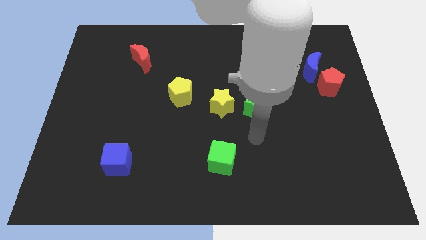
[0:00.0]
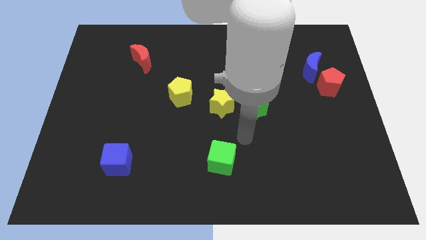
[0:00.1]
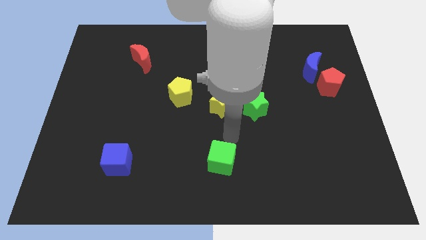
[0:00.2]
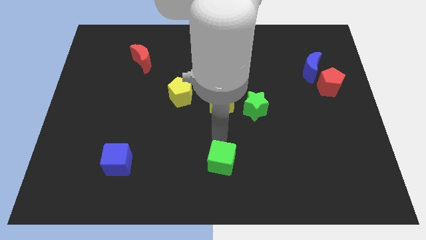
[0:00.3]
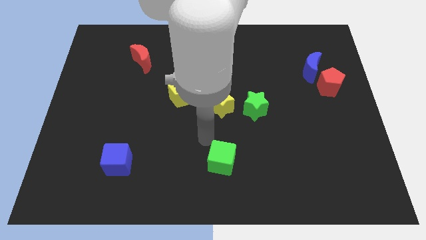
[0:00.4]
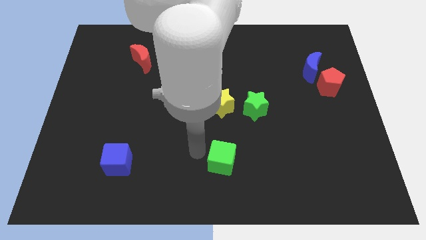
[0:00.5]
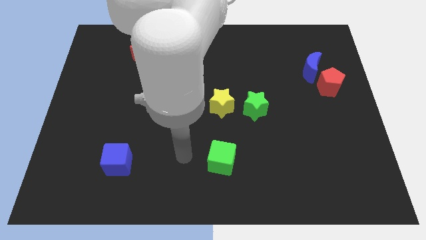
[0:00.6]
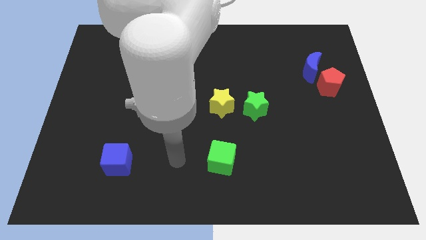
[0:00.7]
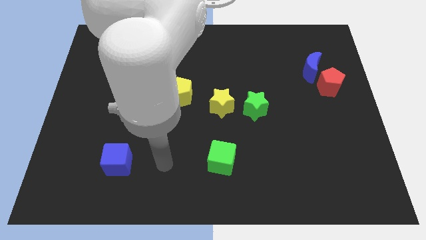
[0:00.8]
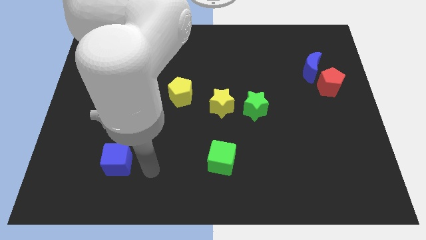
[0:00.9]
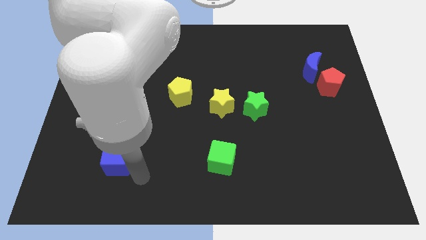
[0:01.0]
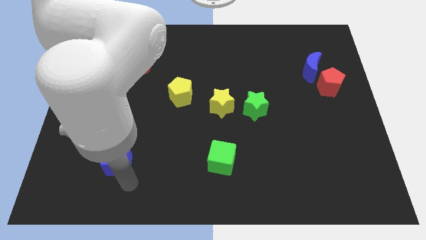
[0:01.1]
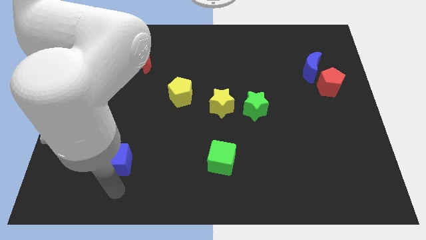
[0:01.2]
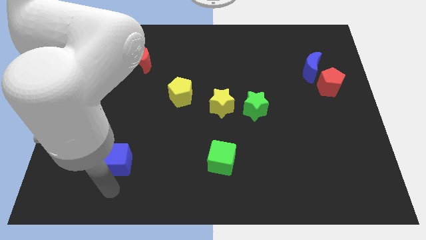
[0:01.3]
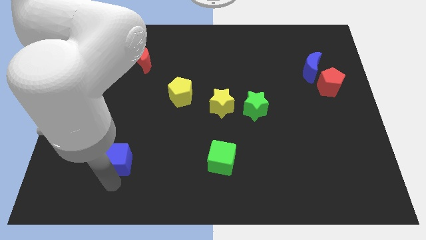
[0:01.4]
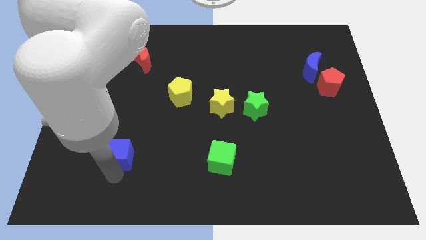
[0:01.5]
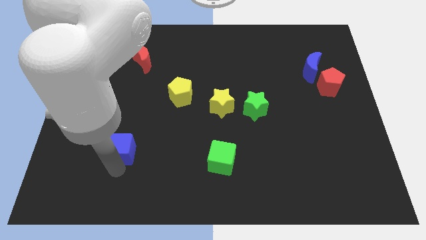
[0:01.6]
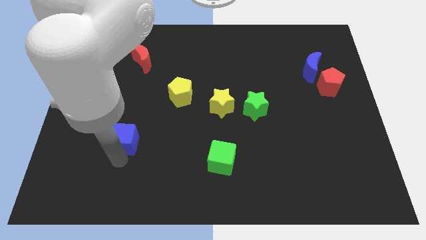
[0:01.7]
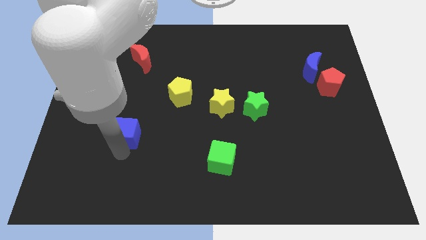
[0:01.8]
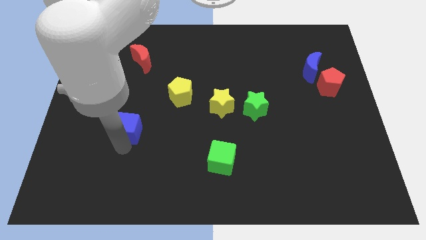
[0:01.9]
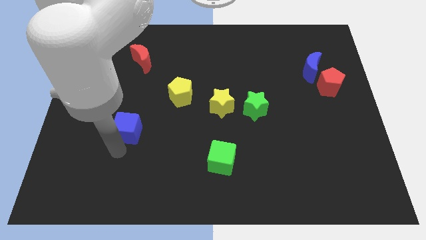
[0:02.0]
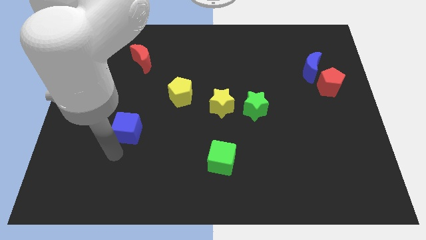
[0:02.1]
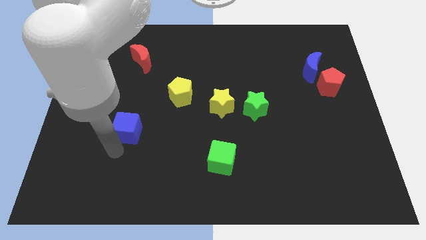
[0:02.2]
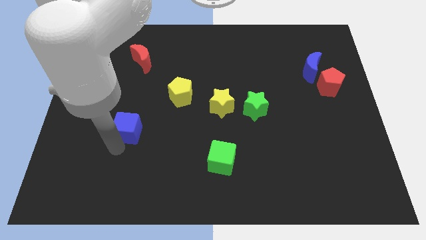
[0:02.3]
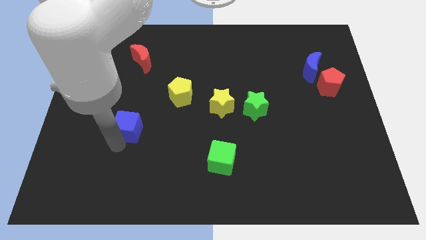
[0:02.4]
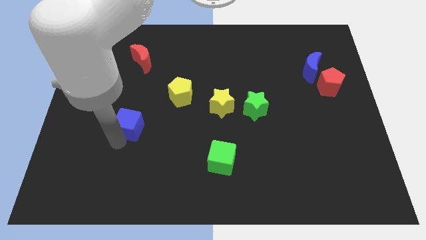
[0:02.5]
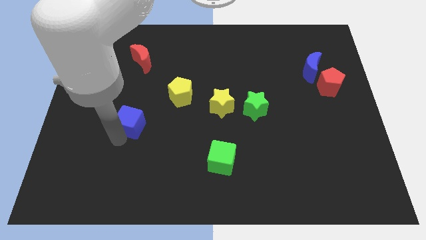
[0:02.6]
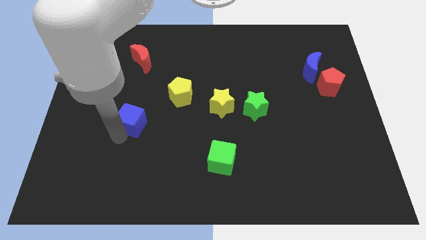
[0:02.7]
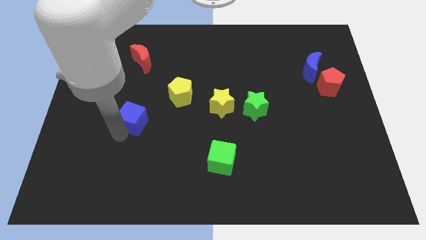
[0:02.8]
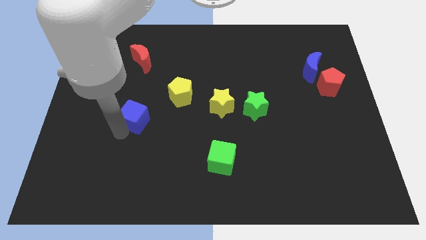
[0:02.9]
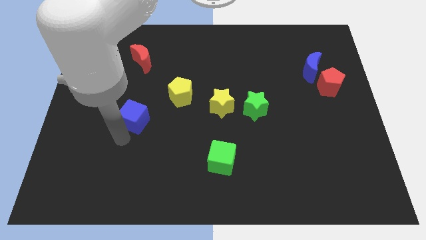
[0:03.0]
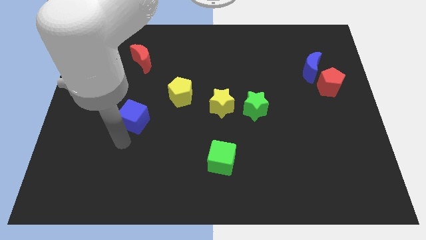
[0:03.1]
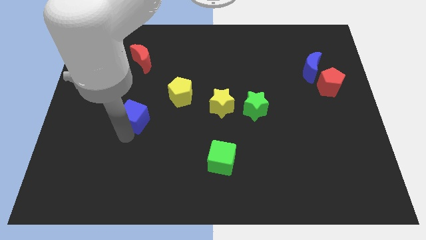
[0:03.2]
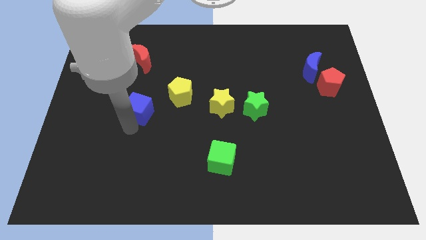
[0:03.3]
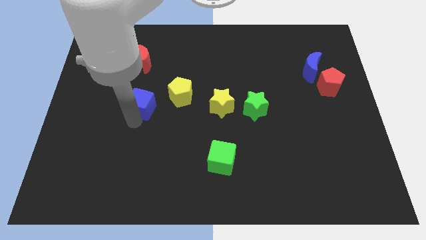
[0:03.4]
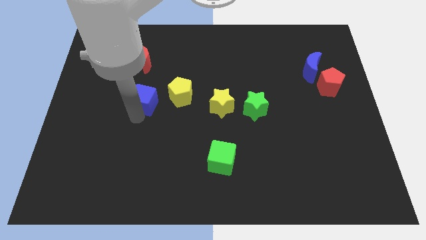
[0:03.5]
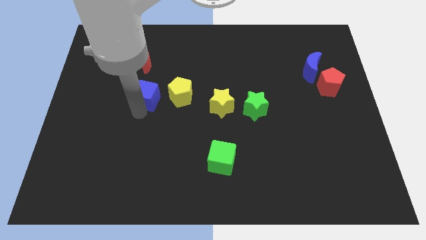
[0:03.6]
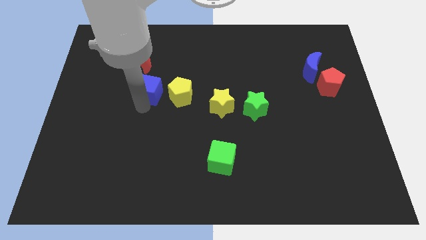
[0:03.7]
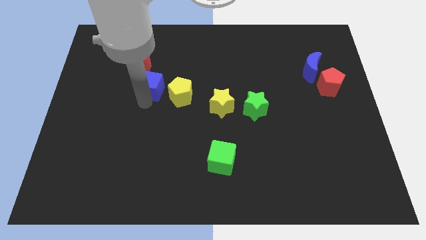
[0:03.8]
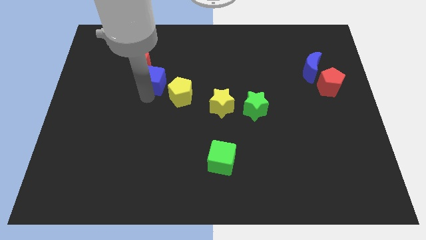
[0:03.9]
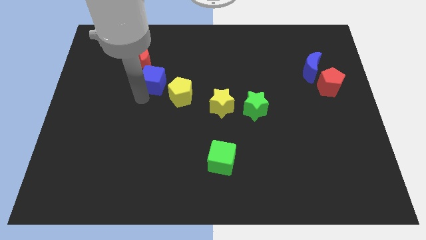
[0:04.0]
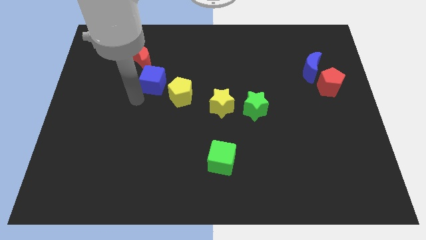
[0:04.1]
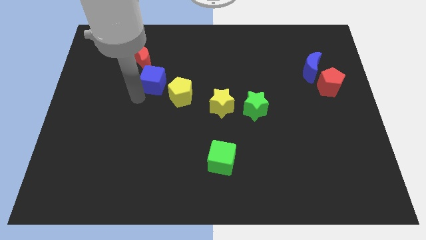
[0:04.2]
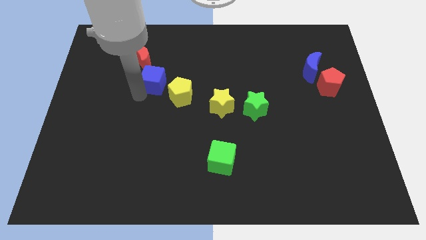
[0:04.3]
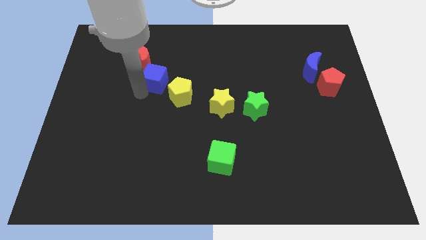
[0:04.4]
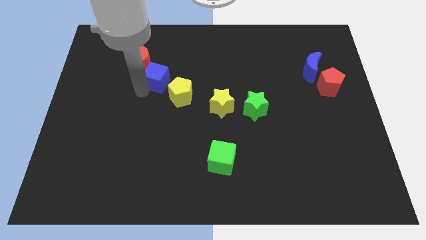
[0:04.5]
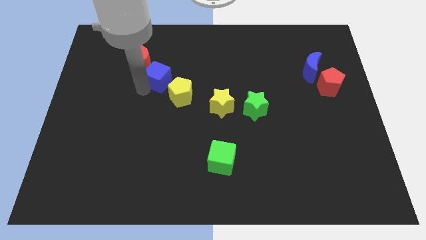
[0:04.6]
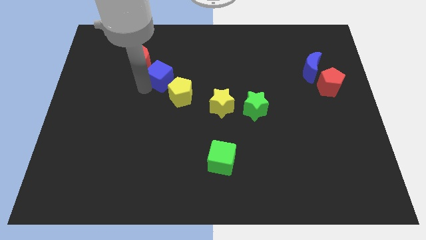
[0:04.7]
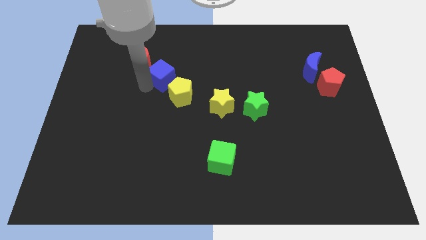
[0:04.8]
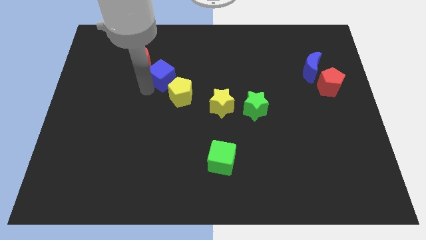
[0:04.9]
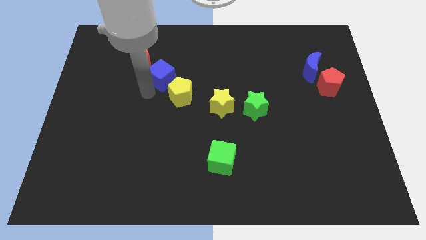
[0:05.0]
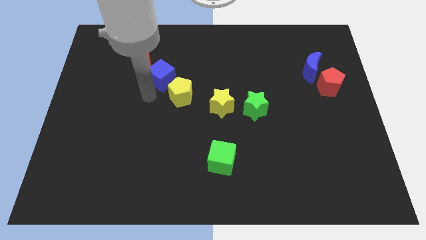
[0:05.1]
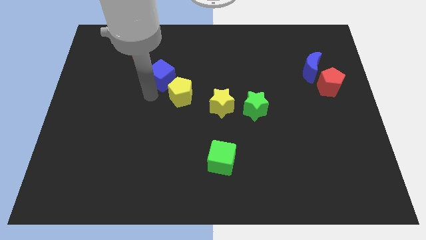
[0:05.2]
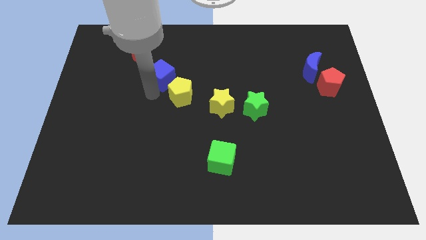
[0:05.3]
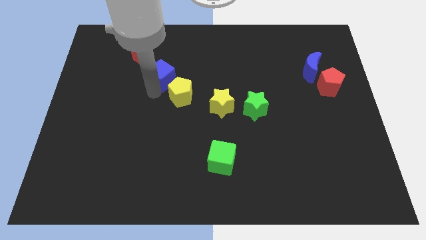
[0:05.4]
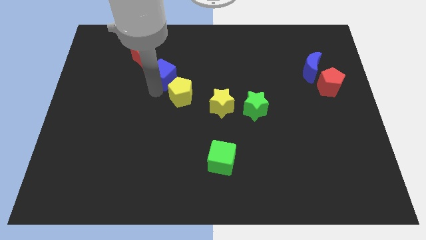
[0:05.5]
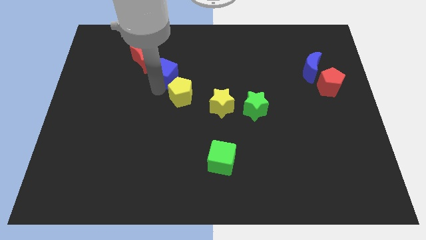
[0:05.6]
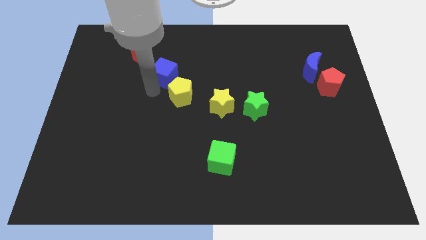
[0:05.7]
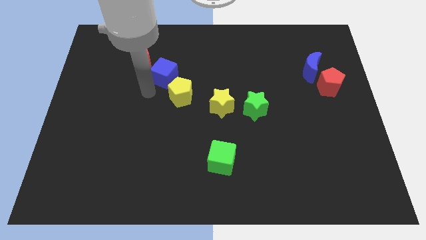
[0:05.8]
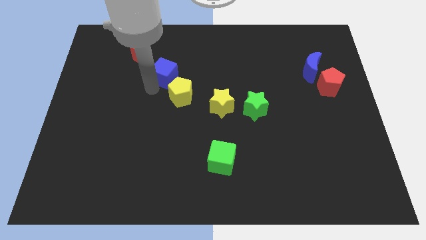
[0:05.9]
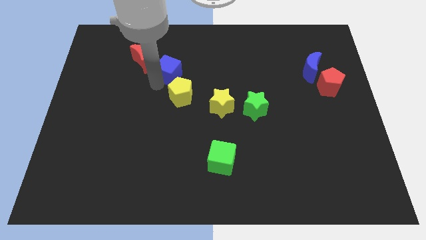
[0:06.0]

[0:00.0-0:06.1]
put the blue cube to the right of the red moon

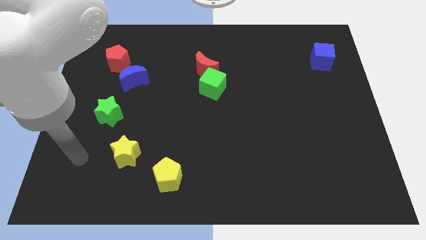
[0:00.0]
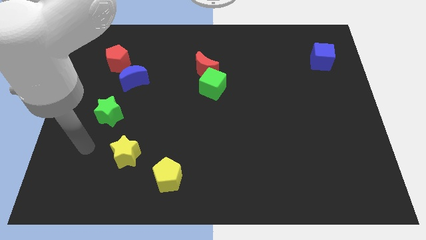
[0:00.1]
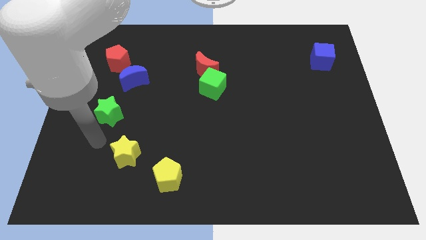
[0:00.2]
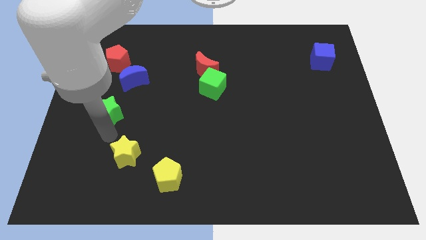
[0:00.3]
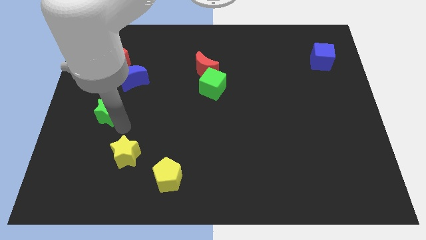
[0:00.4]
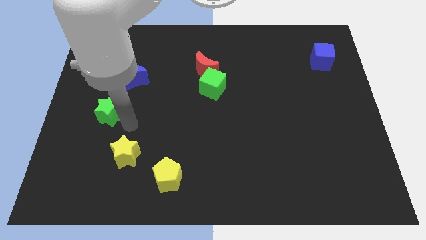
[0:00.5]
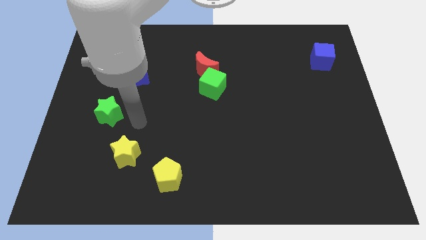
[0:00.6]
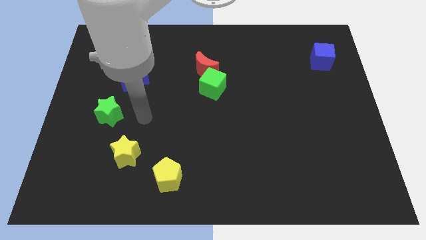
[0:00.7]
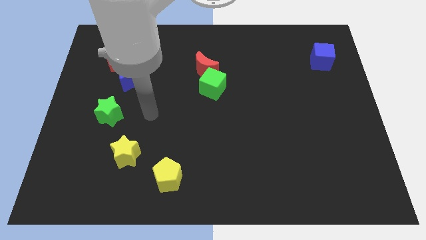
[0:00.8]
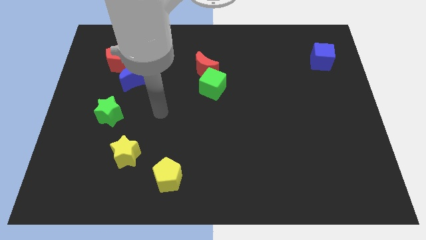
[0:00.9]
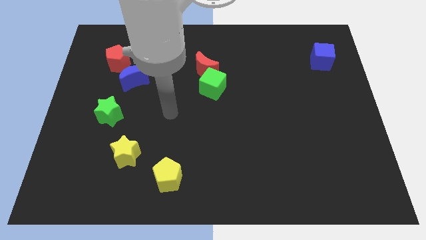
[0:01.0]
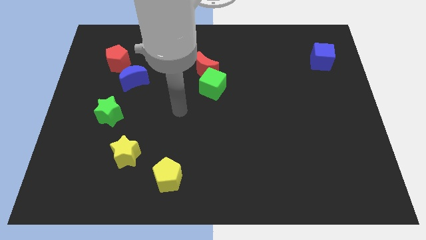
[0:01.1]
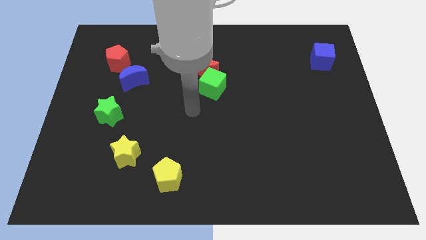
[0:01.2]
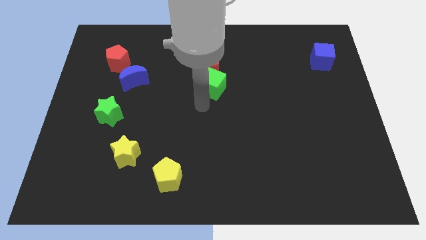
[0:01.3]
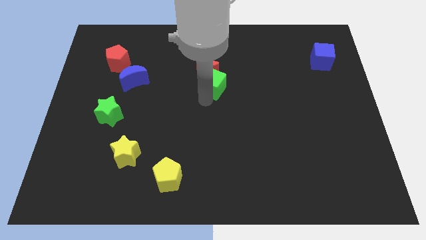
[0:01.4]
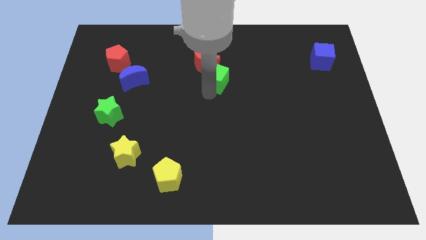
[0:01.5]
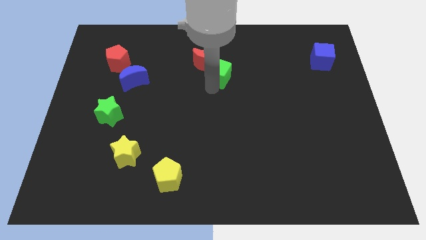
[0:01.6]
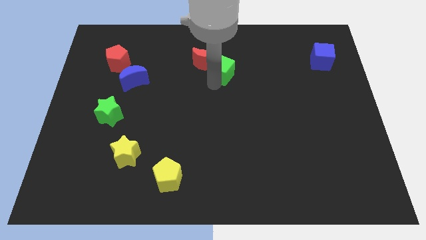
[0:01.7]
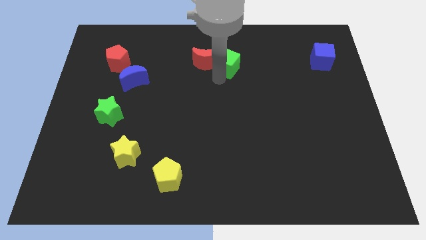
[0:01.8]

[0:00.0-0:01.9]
push the green cube diagonally up and to the right of the red moon
